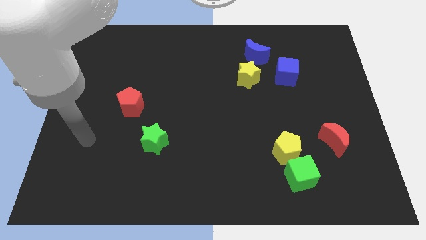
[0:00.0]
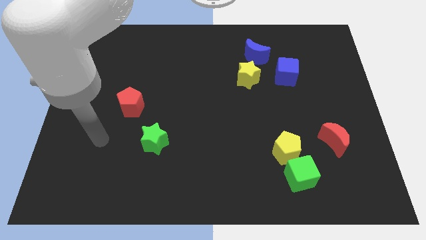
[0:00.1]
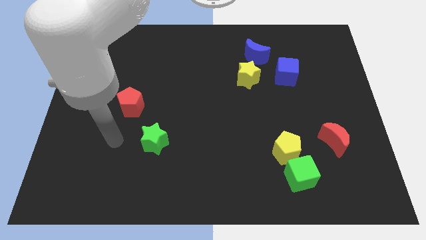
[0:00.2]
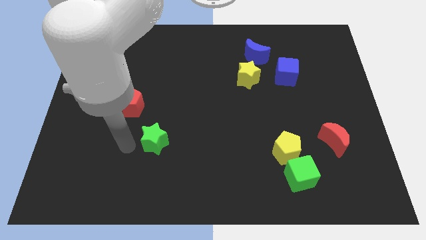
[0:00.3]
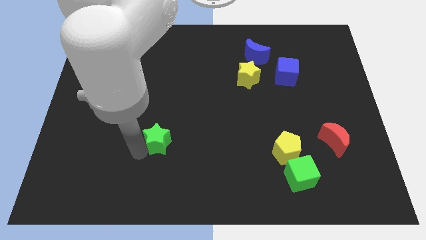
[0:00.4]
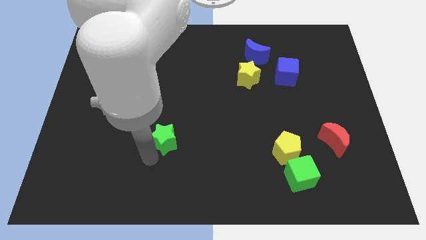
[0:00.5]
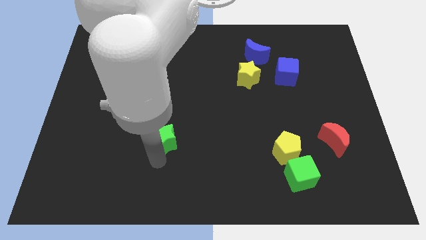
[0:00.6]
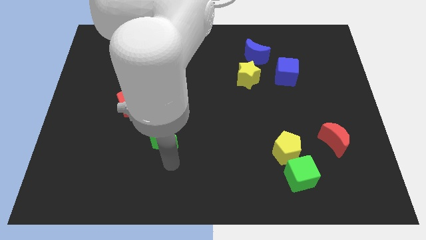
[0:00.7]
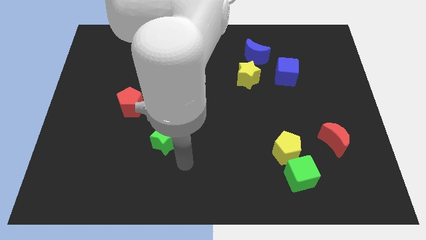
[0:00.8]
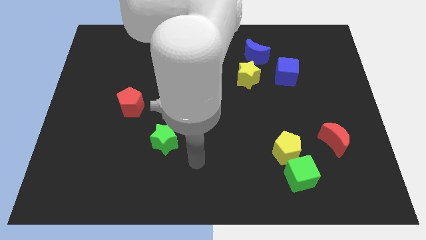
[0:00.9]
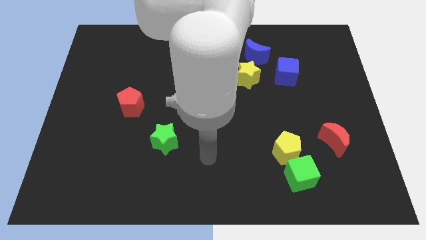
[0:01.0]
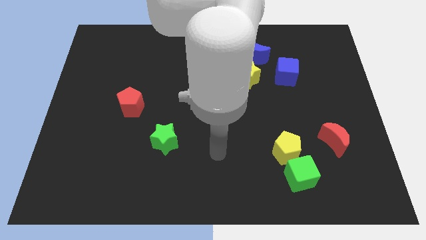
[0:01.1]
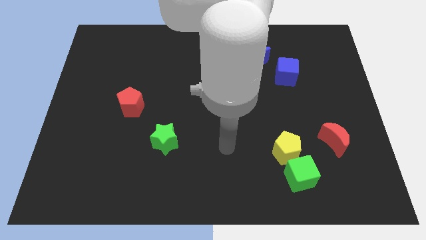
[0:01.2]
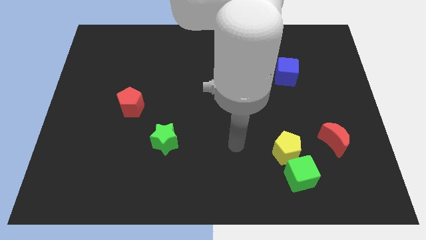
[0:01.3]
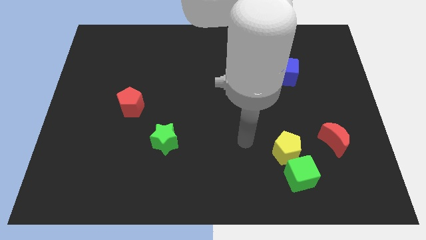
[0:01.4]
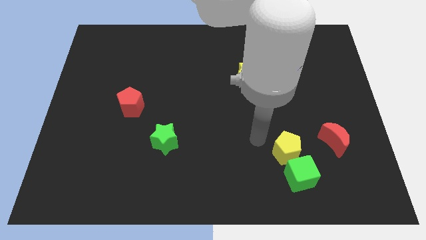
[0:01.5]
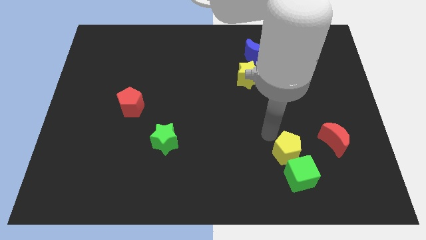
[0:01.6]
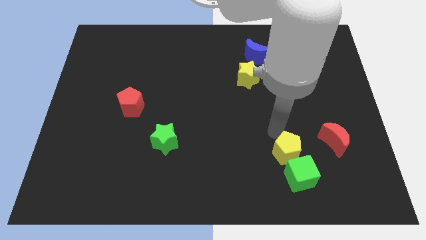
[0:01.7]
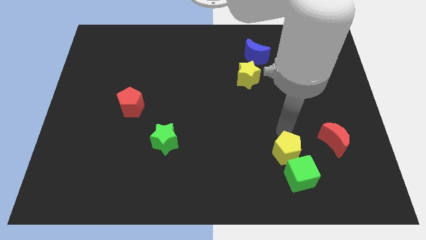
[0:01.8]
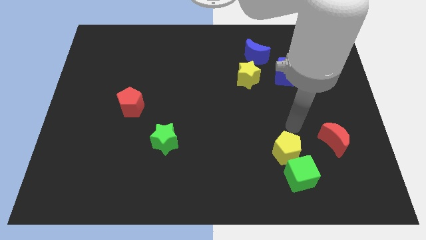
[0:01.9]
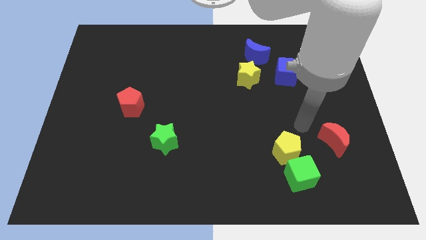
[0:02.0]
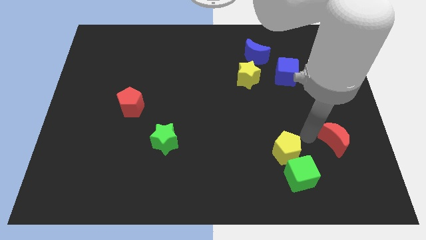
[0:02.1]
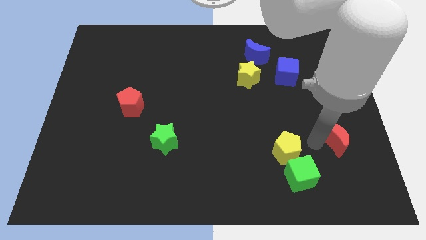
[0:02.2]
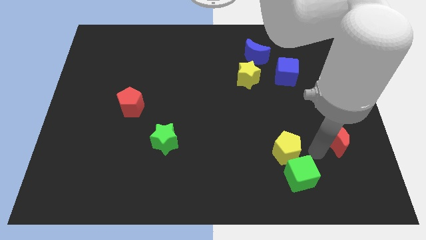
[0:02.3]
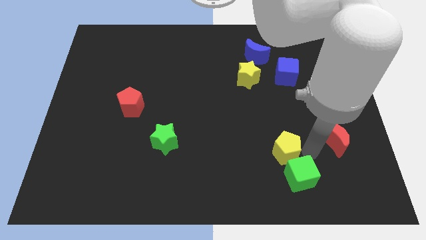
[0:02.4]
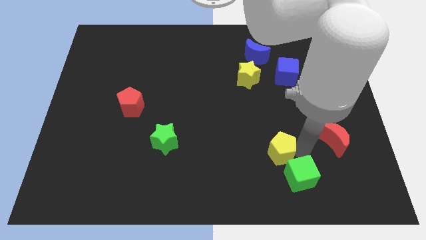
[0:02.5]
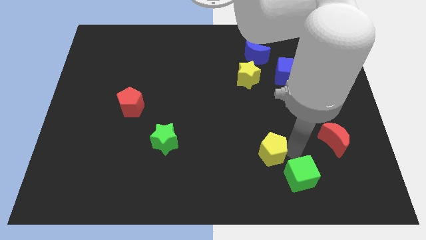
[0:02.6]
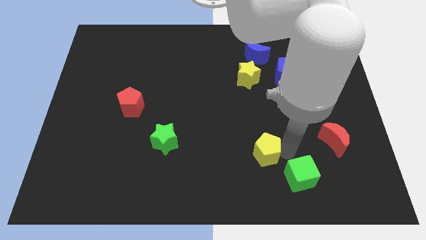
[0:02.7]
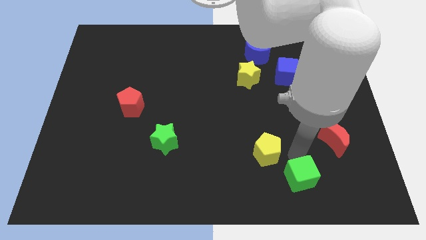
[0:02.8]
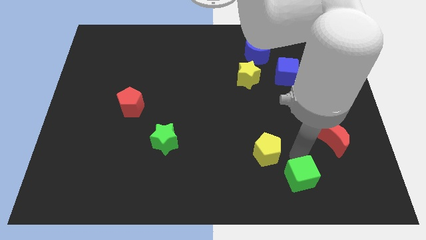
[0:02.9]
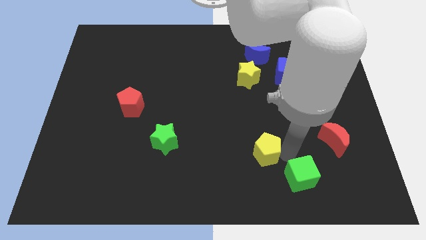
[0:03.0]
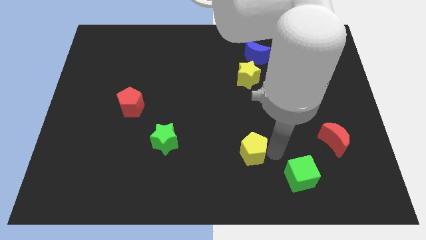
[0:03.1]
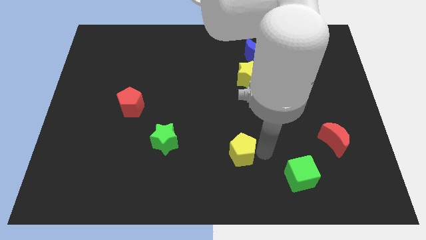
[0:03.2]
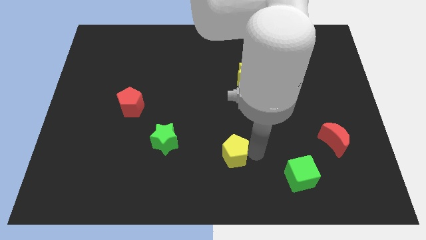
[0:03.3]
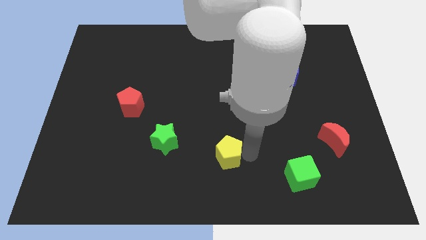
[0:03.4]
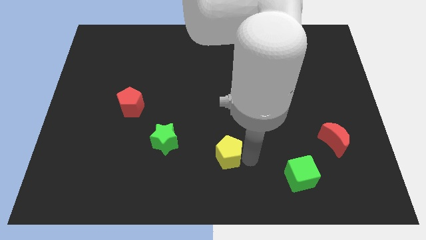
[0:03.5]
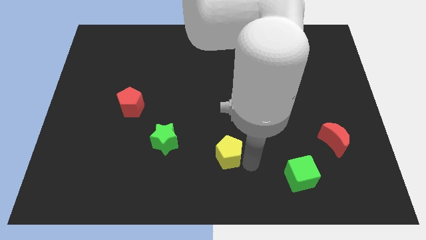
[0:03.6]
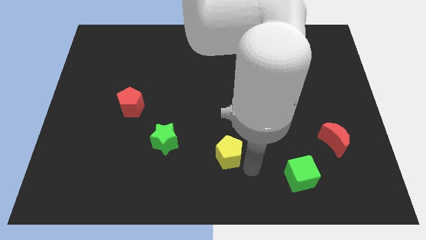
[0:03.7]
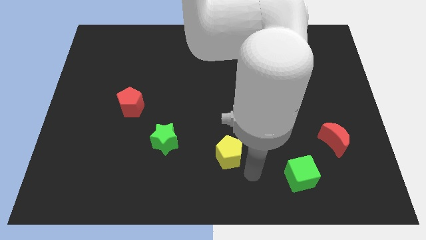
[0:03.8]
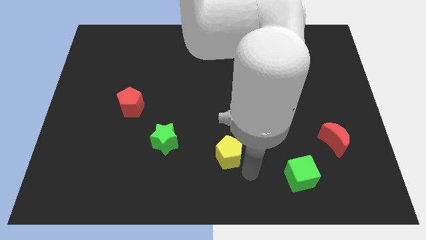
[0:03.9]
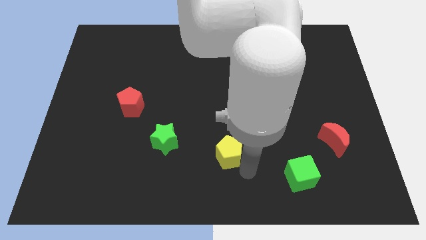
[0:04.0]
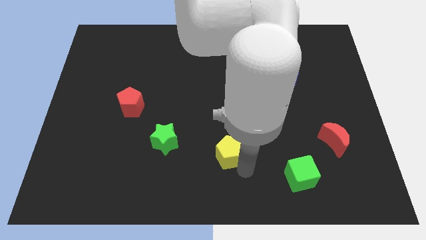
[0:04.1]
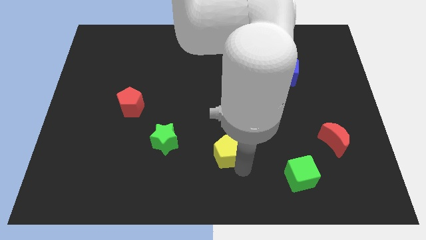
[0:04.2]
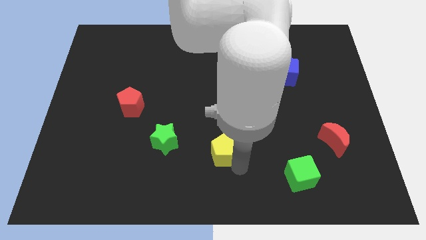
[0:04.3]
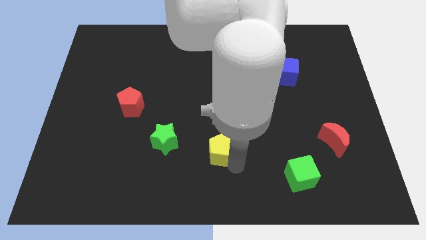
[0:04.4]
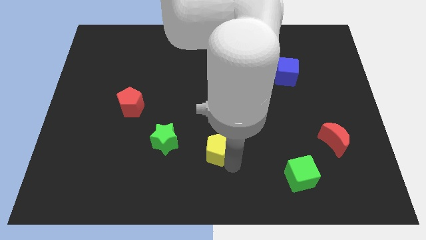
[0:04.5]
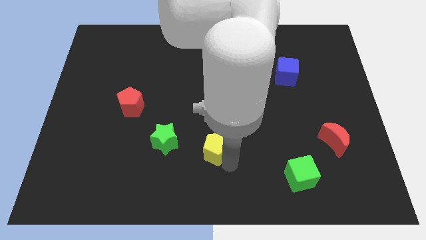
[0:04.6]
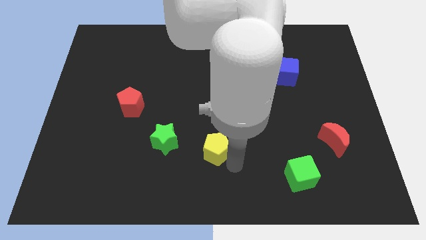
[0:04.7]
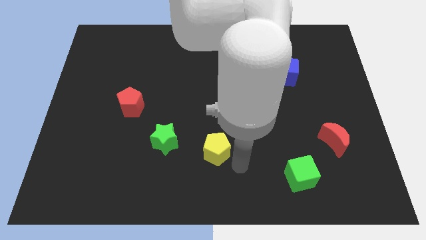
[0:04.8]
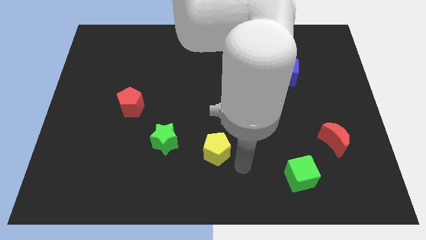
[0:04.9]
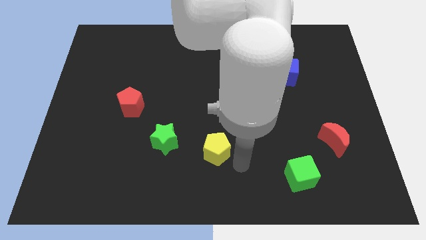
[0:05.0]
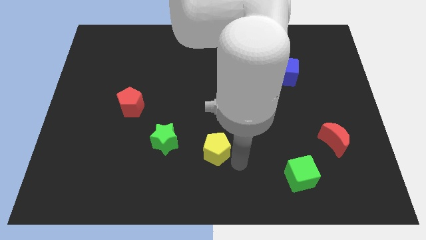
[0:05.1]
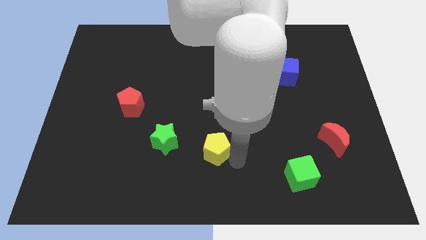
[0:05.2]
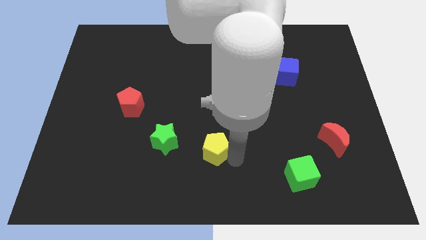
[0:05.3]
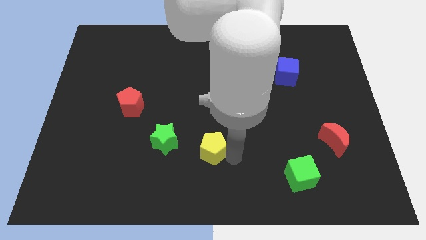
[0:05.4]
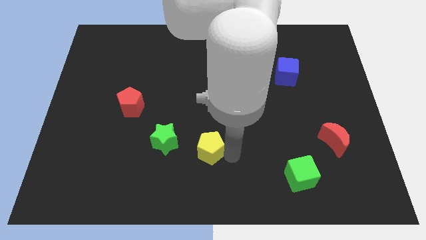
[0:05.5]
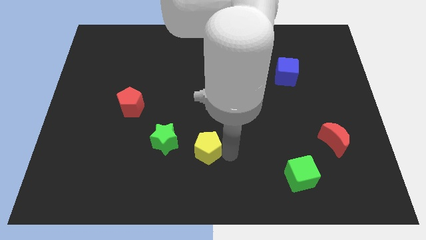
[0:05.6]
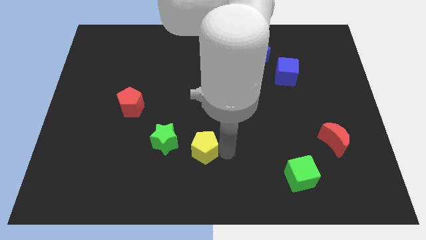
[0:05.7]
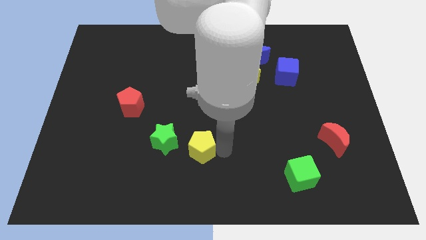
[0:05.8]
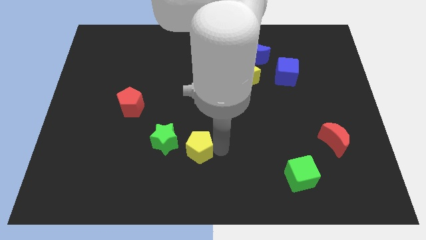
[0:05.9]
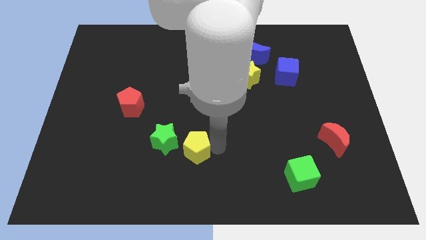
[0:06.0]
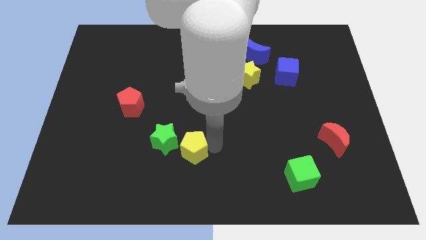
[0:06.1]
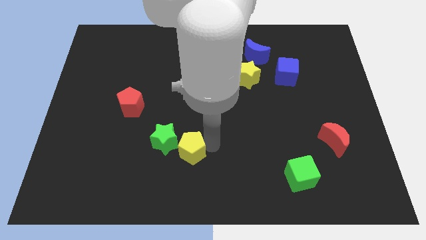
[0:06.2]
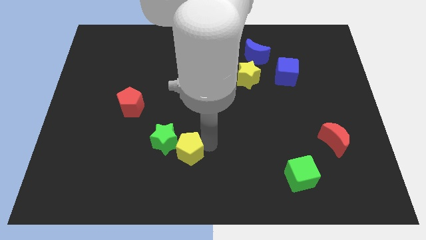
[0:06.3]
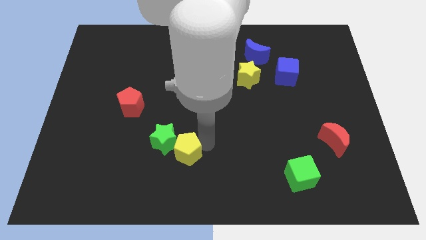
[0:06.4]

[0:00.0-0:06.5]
put the yellow pentagon next to the green star

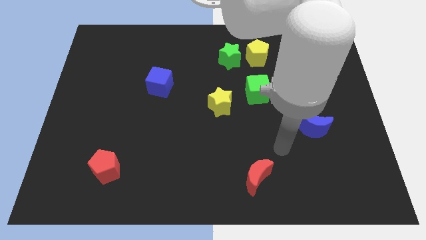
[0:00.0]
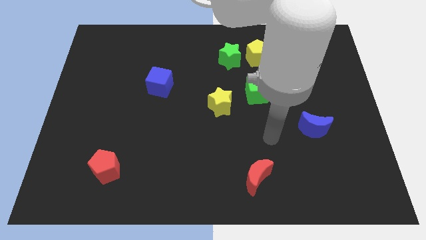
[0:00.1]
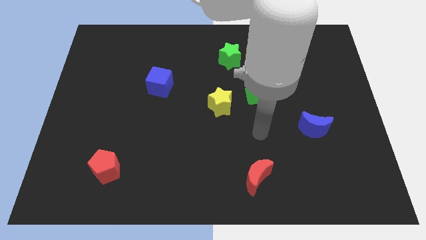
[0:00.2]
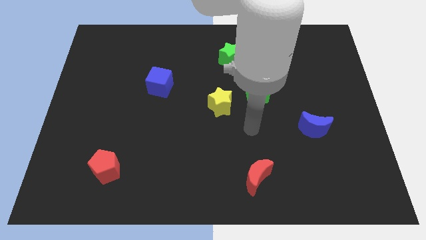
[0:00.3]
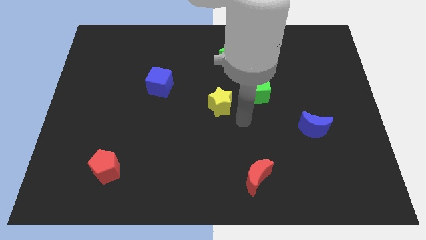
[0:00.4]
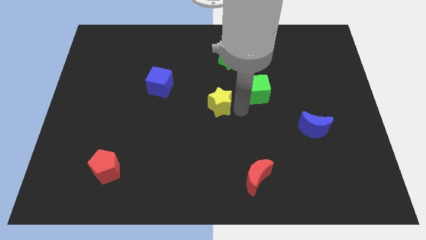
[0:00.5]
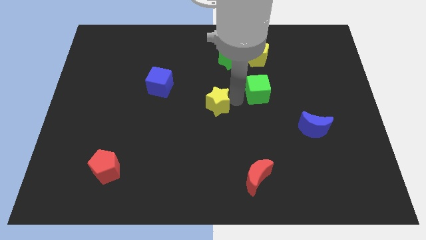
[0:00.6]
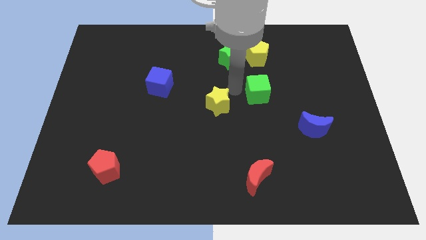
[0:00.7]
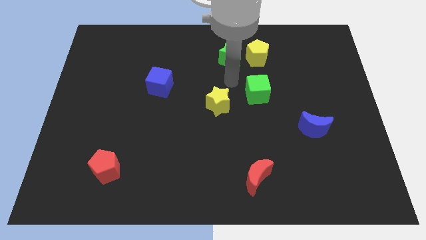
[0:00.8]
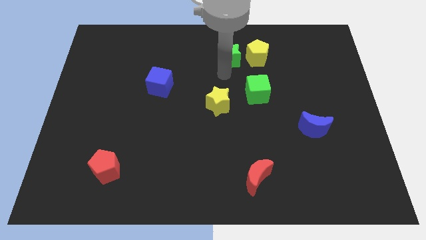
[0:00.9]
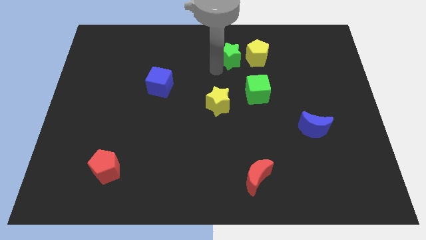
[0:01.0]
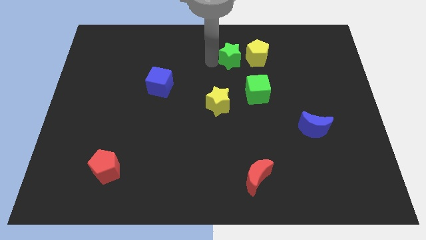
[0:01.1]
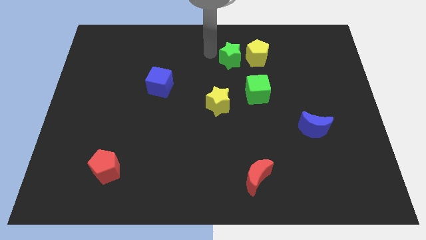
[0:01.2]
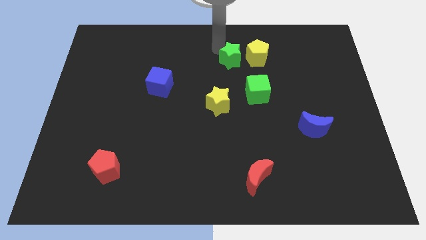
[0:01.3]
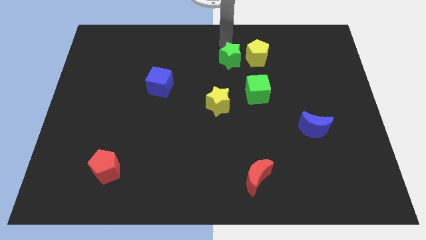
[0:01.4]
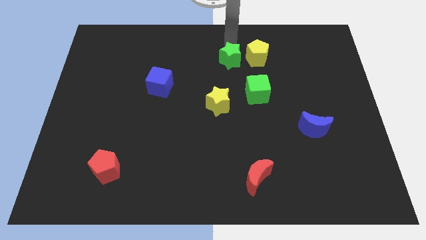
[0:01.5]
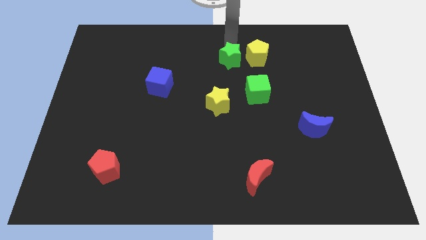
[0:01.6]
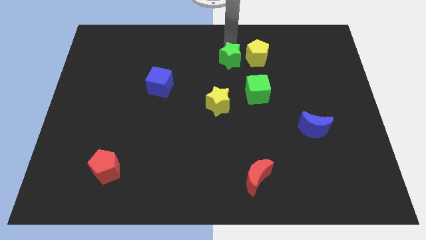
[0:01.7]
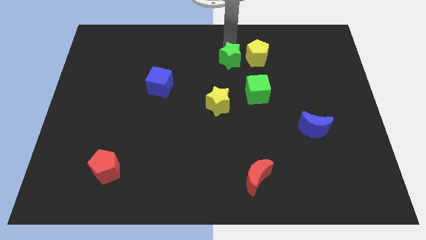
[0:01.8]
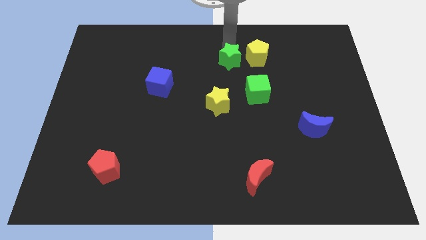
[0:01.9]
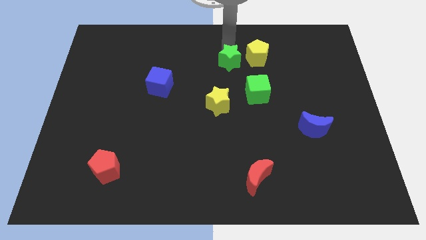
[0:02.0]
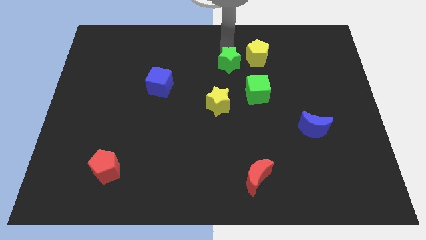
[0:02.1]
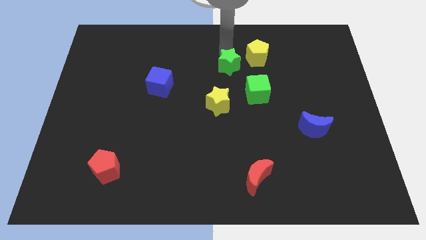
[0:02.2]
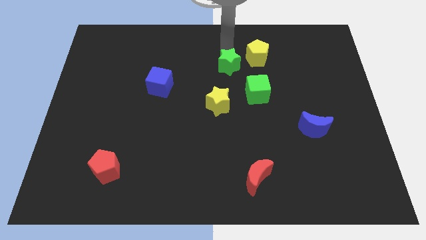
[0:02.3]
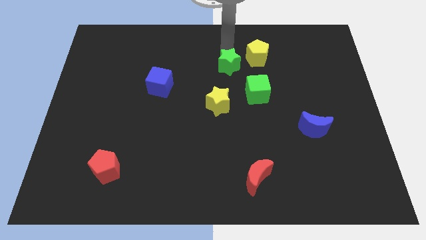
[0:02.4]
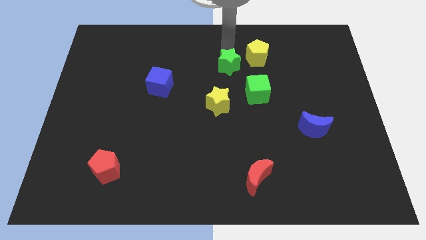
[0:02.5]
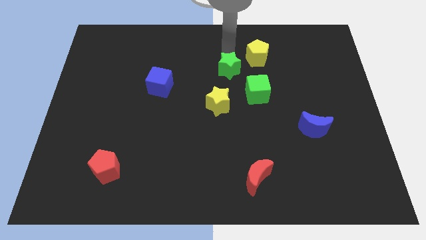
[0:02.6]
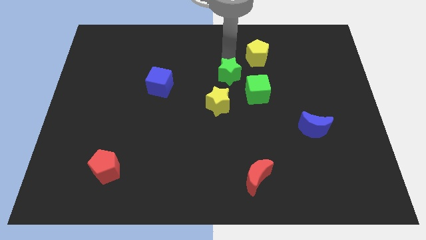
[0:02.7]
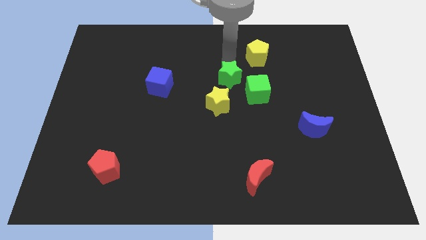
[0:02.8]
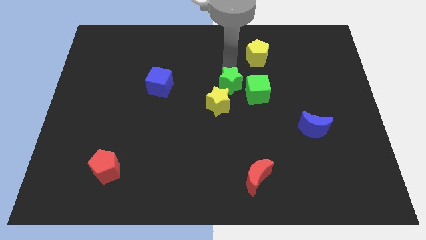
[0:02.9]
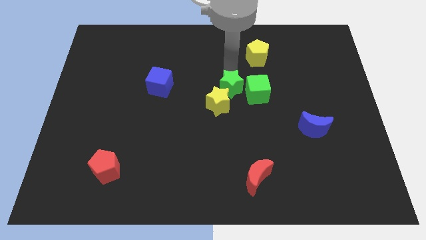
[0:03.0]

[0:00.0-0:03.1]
move the green star next to the yellow star
